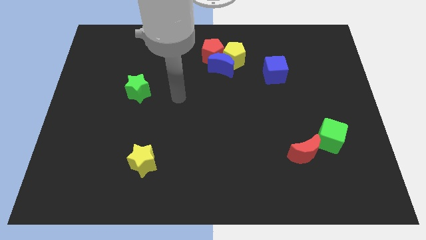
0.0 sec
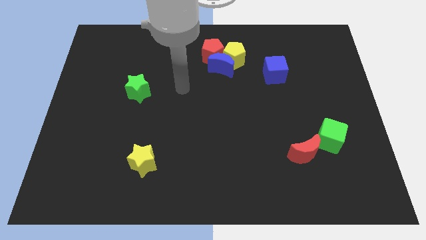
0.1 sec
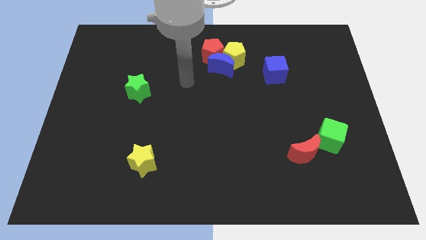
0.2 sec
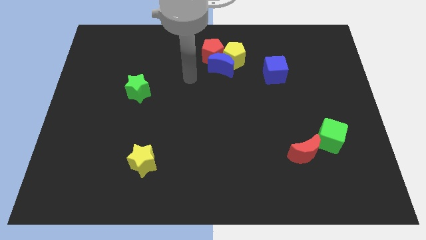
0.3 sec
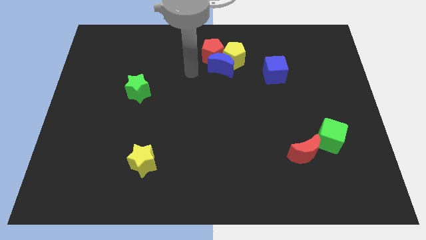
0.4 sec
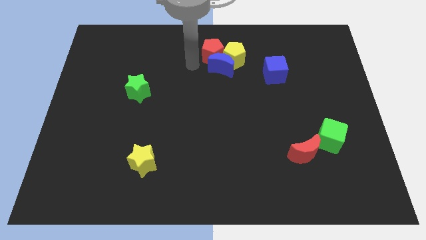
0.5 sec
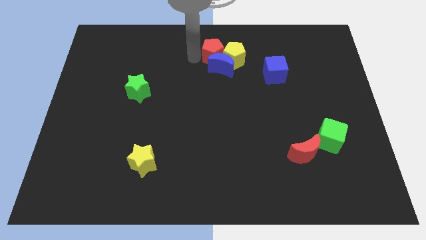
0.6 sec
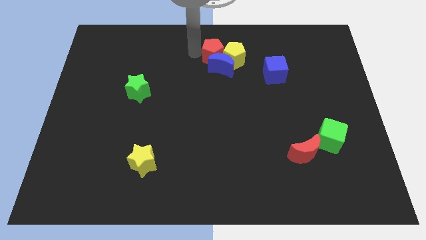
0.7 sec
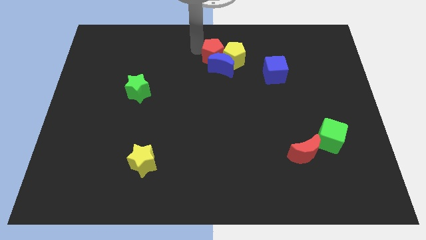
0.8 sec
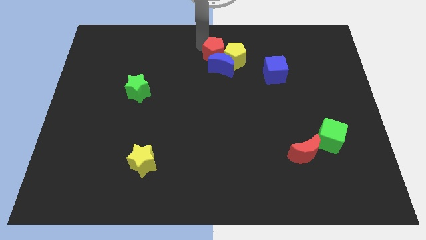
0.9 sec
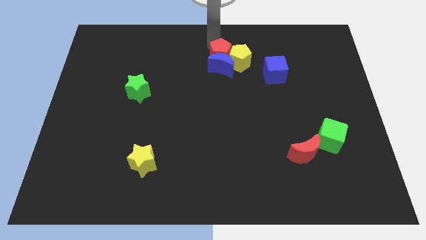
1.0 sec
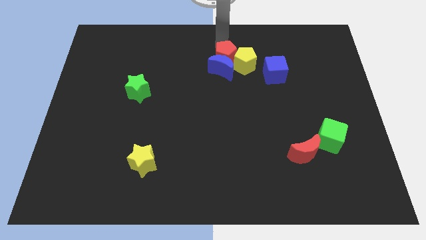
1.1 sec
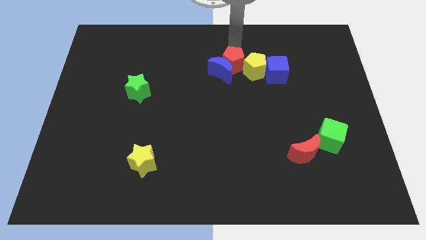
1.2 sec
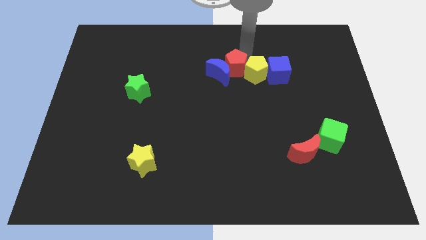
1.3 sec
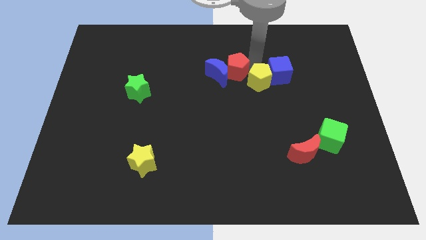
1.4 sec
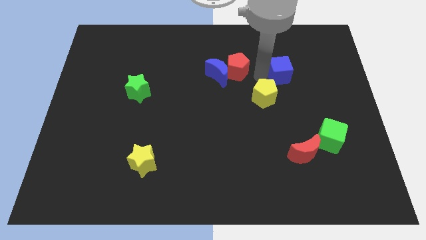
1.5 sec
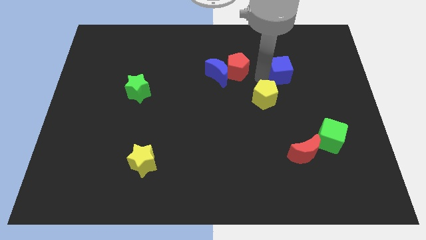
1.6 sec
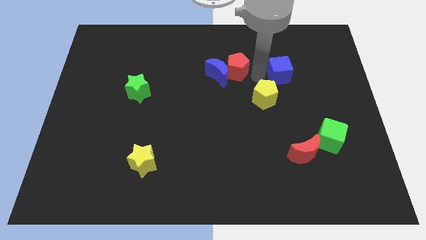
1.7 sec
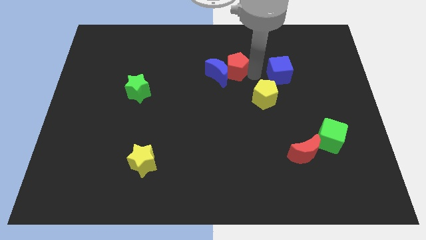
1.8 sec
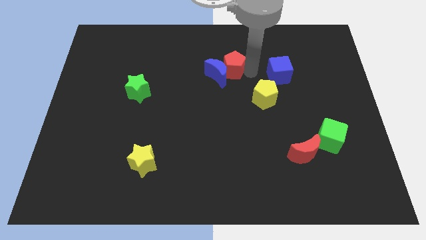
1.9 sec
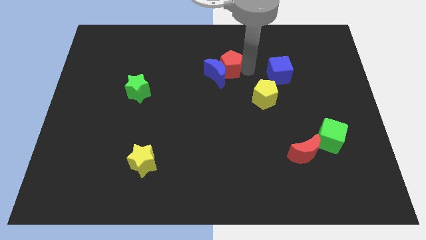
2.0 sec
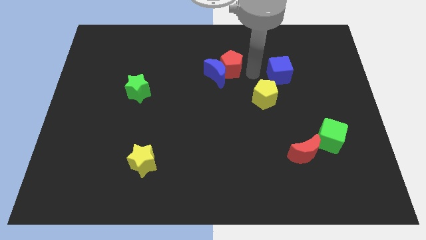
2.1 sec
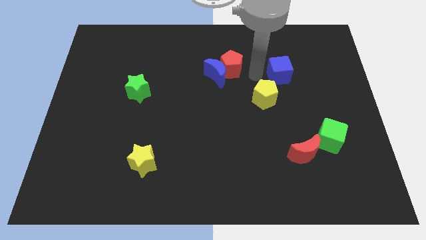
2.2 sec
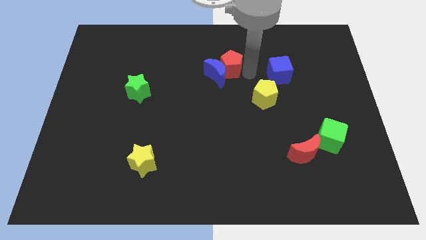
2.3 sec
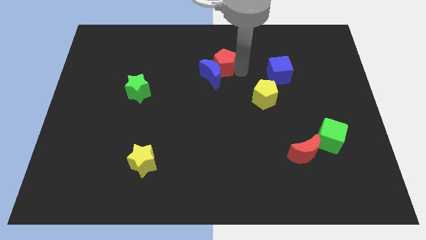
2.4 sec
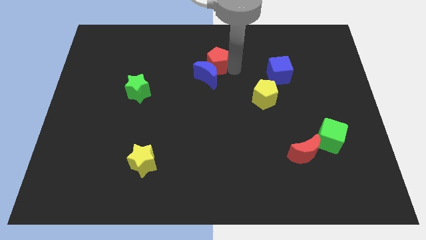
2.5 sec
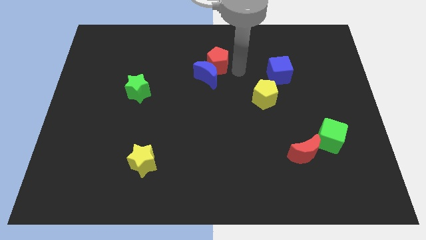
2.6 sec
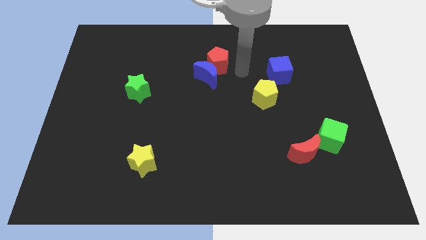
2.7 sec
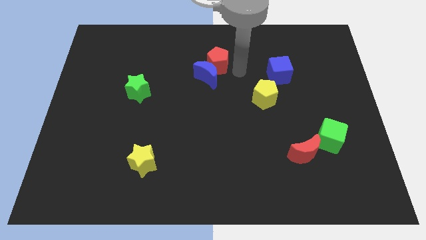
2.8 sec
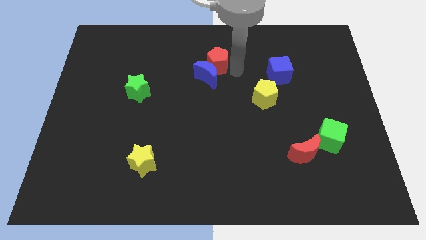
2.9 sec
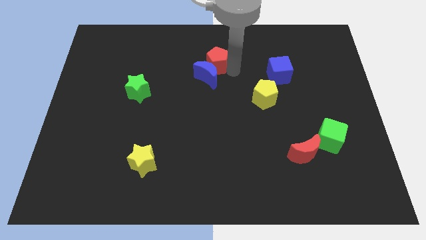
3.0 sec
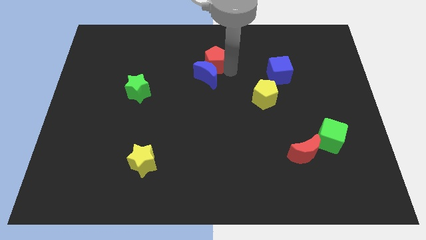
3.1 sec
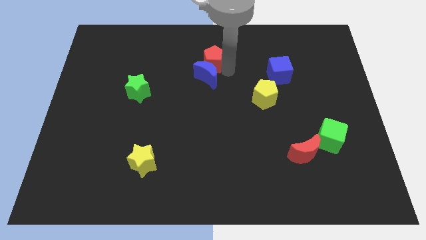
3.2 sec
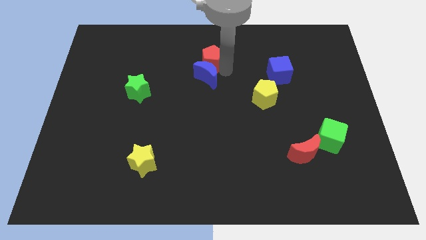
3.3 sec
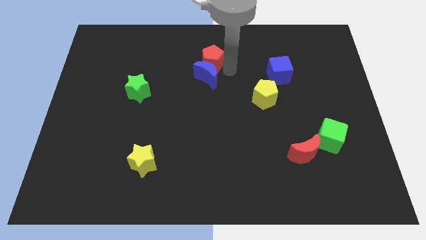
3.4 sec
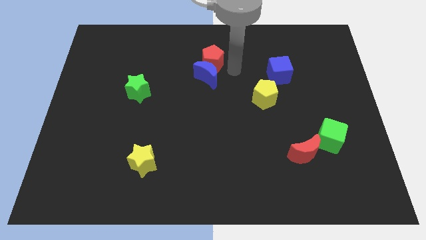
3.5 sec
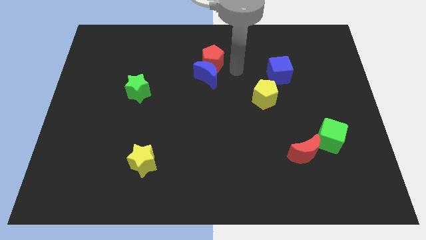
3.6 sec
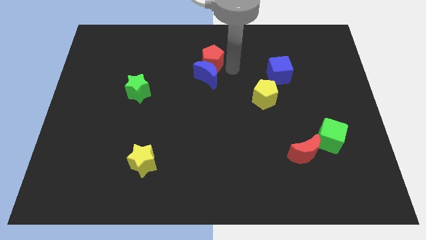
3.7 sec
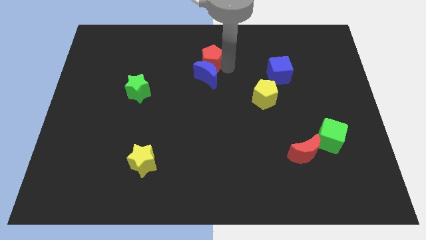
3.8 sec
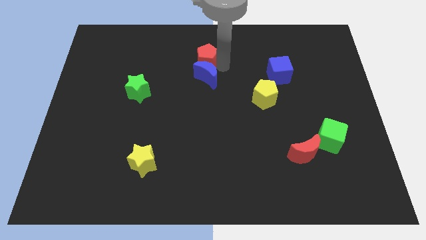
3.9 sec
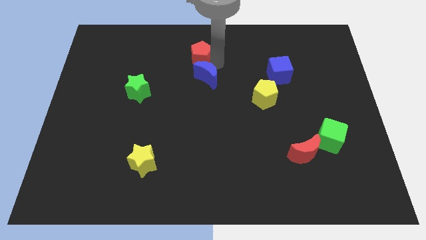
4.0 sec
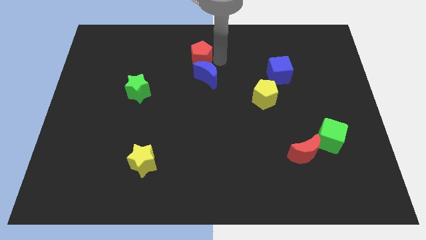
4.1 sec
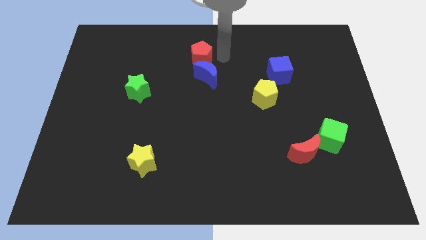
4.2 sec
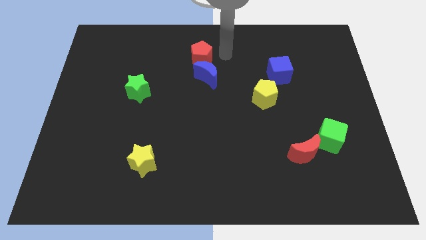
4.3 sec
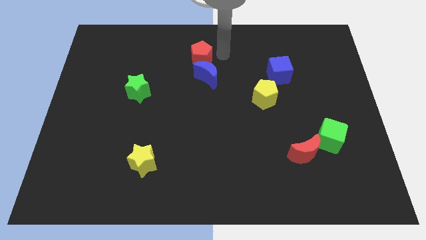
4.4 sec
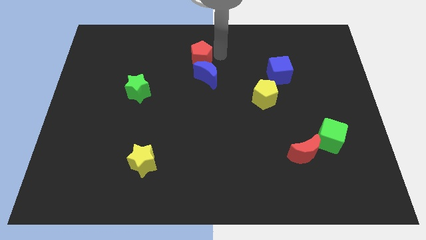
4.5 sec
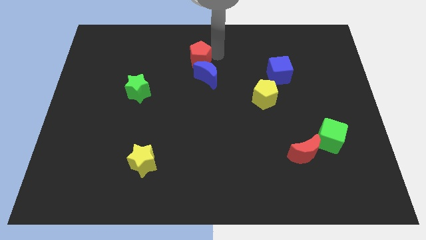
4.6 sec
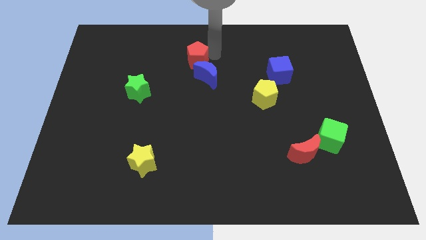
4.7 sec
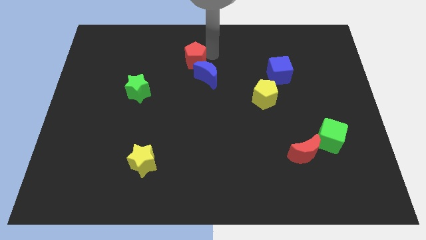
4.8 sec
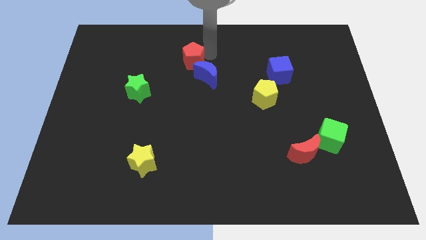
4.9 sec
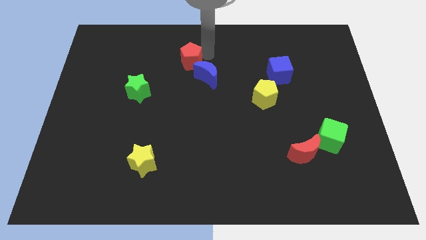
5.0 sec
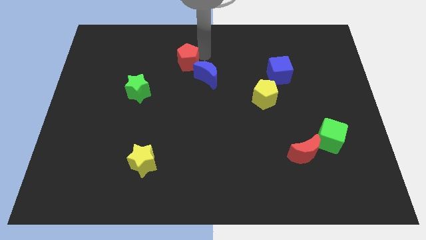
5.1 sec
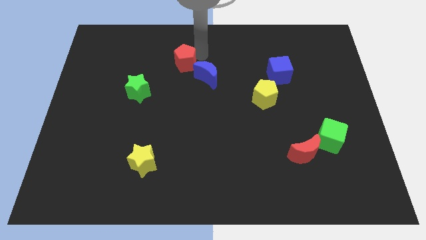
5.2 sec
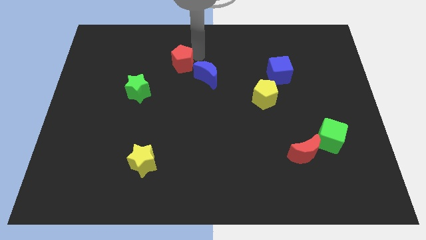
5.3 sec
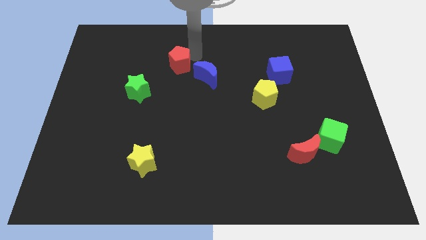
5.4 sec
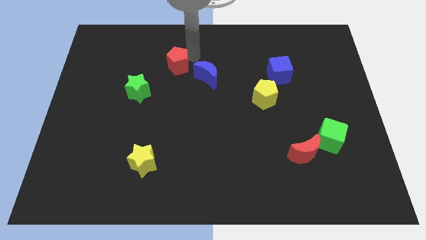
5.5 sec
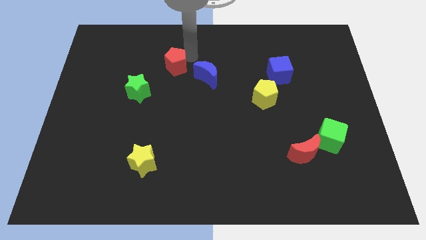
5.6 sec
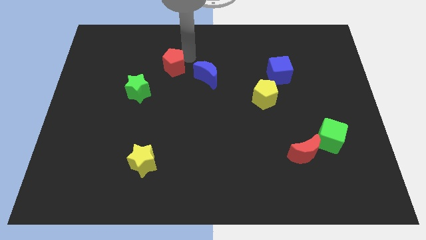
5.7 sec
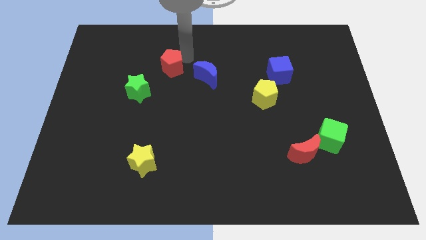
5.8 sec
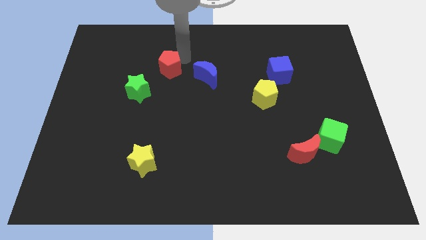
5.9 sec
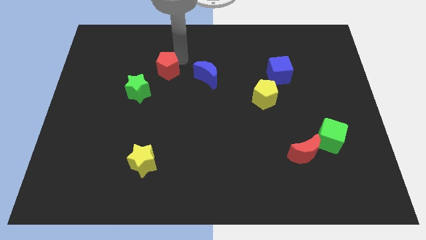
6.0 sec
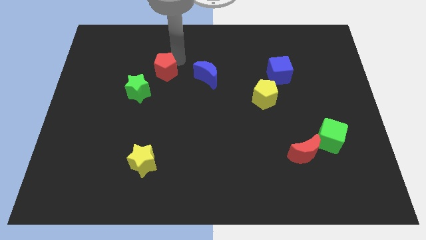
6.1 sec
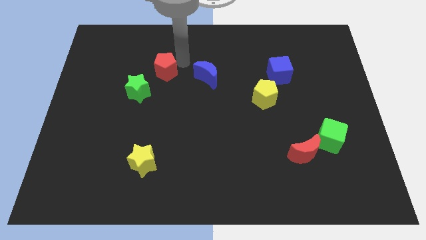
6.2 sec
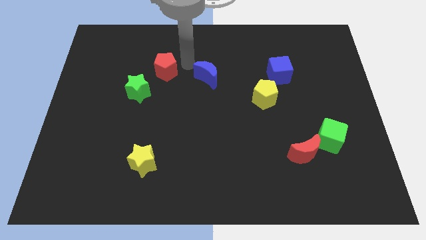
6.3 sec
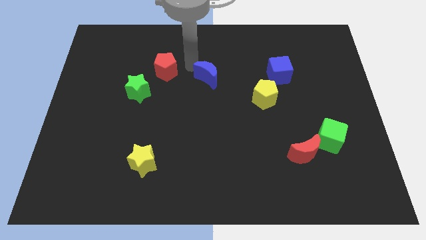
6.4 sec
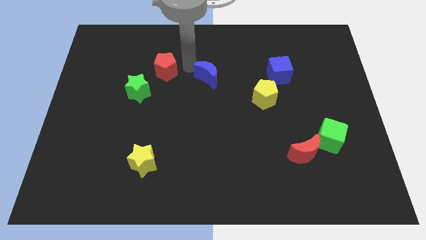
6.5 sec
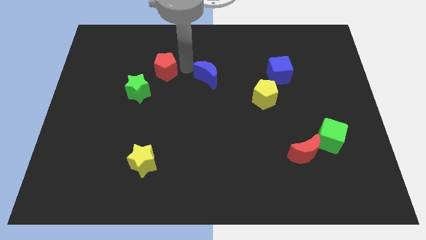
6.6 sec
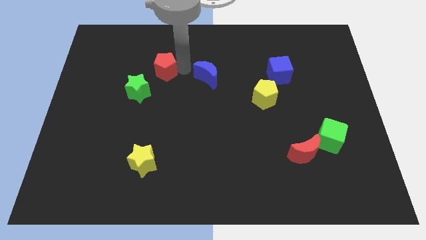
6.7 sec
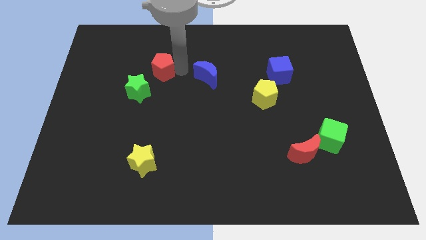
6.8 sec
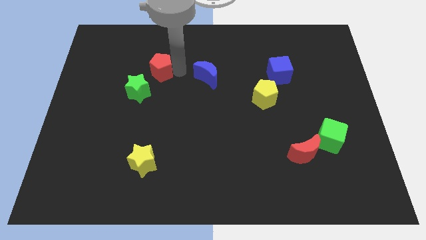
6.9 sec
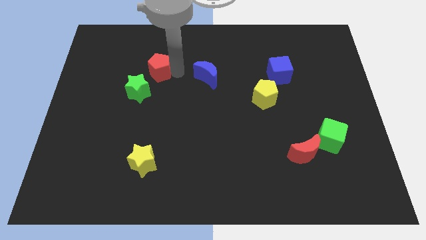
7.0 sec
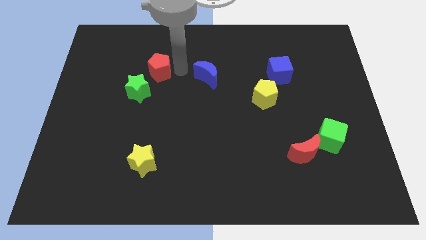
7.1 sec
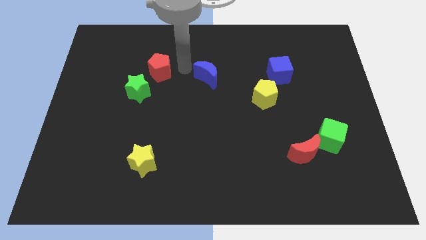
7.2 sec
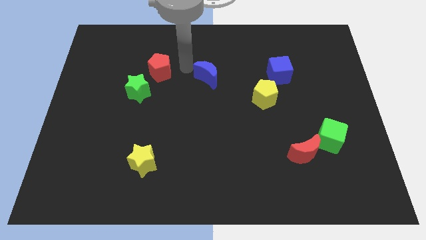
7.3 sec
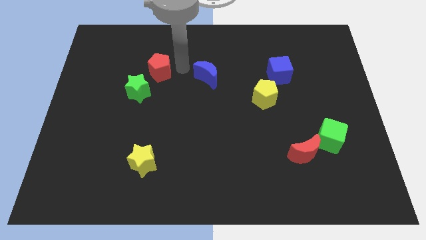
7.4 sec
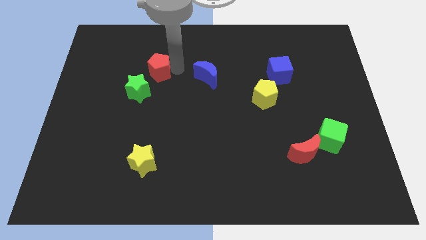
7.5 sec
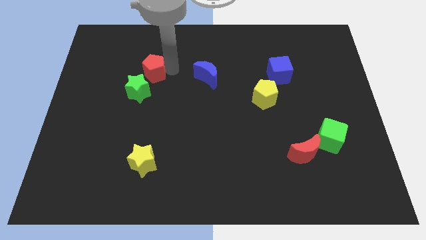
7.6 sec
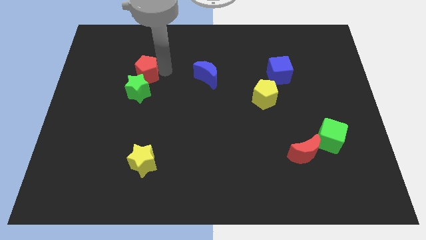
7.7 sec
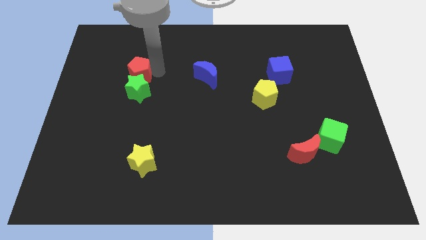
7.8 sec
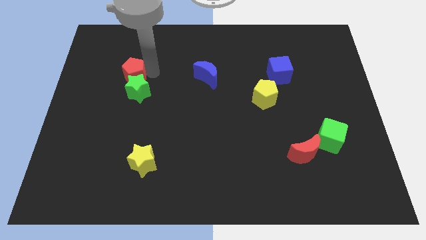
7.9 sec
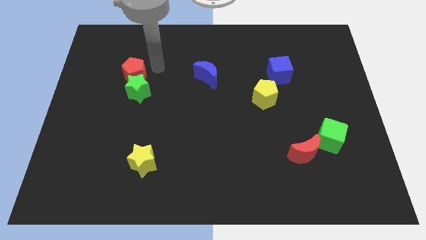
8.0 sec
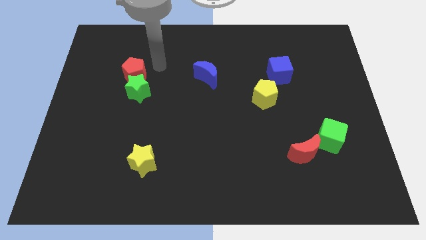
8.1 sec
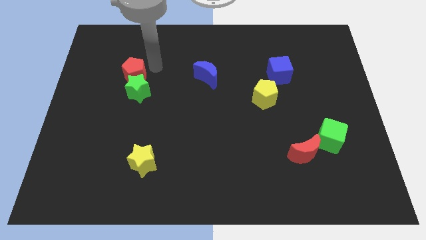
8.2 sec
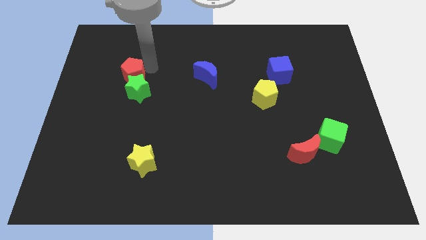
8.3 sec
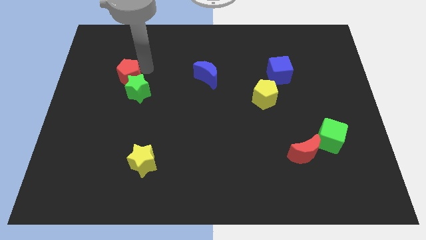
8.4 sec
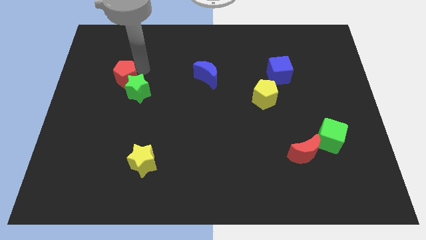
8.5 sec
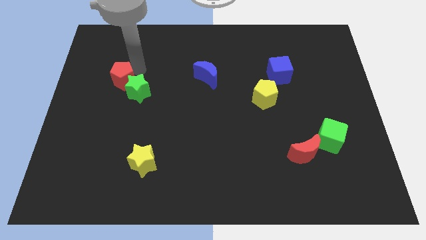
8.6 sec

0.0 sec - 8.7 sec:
slide the red pentagon left of the green star
